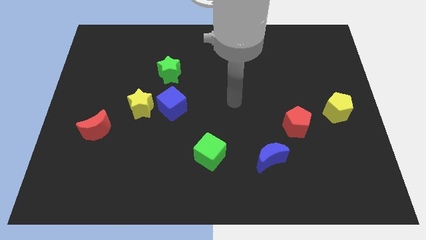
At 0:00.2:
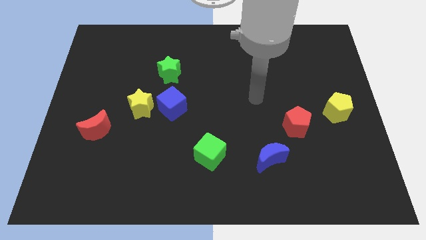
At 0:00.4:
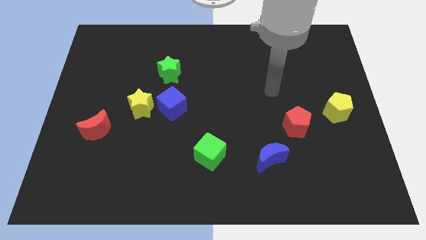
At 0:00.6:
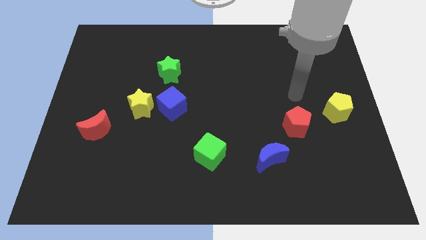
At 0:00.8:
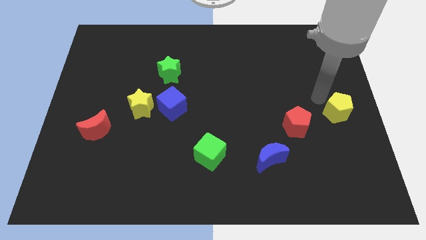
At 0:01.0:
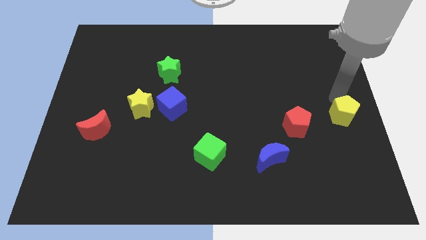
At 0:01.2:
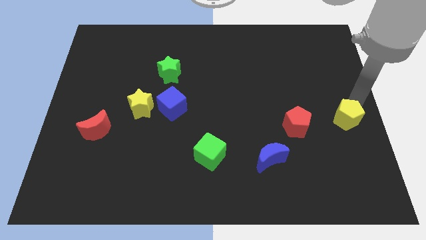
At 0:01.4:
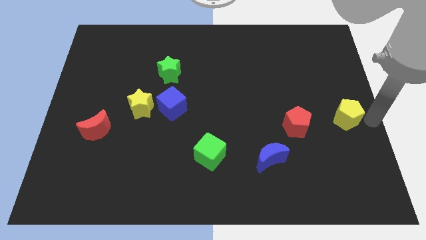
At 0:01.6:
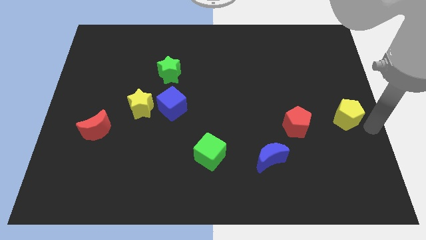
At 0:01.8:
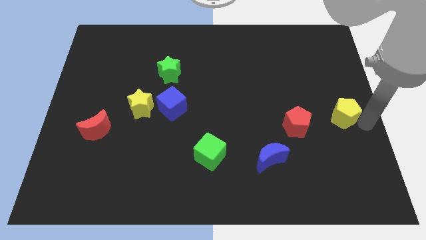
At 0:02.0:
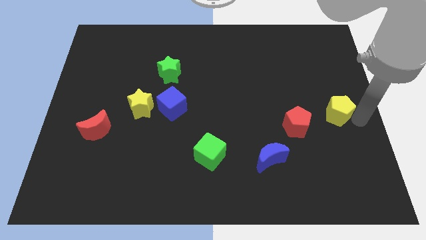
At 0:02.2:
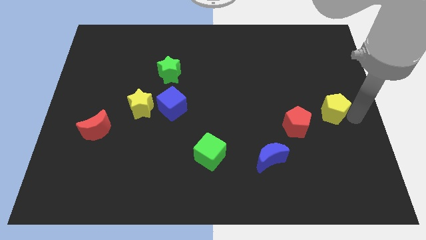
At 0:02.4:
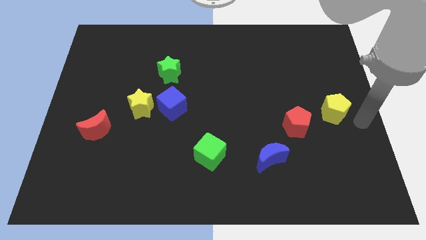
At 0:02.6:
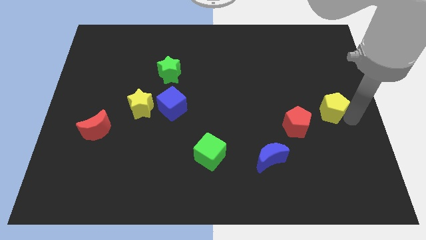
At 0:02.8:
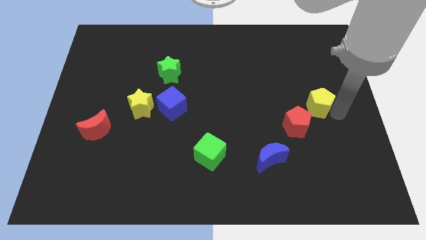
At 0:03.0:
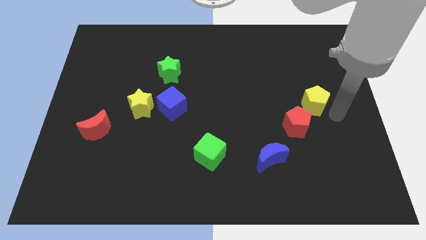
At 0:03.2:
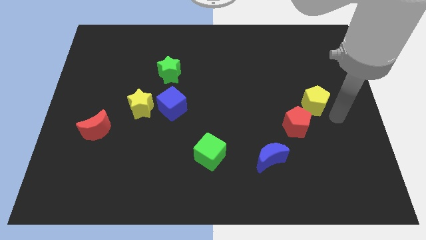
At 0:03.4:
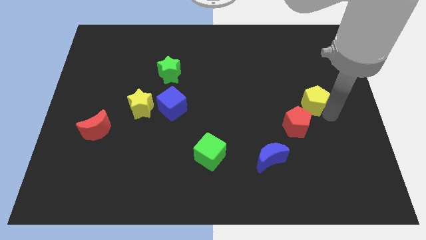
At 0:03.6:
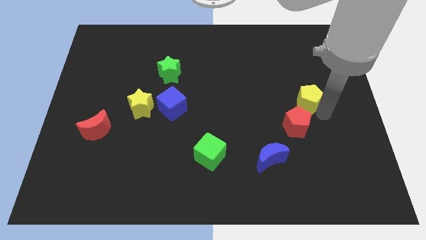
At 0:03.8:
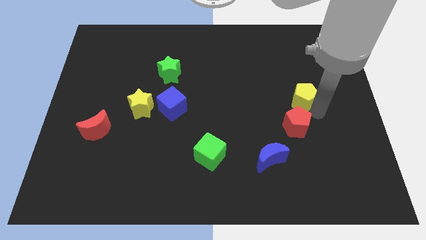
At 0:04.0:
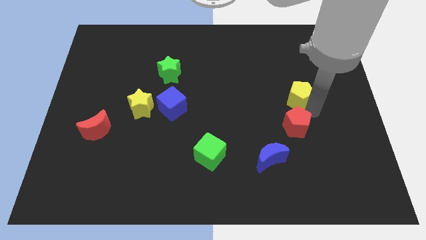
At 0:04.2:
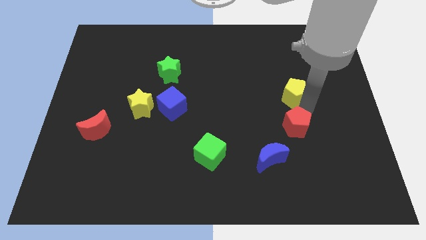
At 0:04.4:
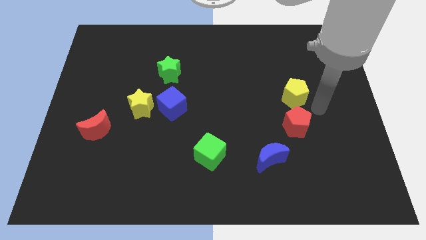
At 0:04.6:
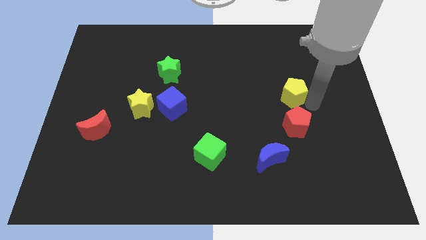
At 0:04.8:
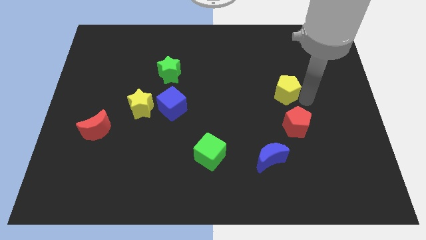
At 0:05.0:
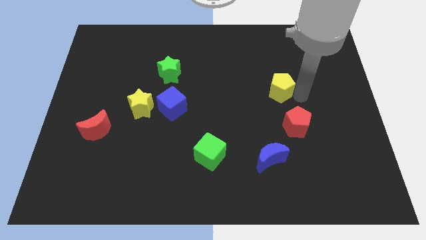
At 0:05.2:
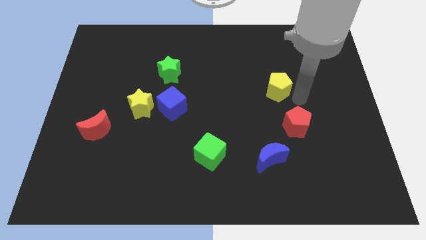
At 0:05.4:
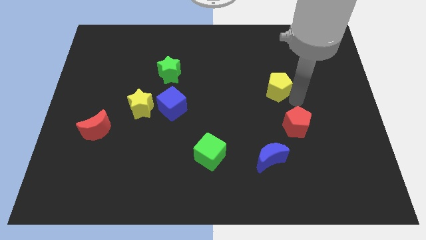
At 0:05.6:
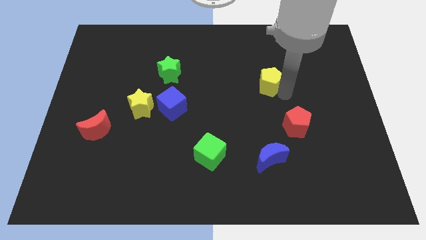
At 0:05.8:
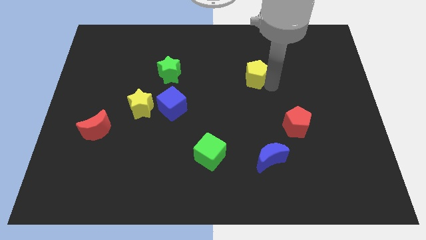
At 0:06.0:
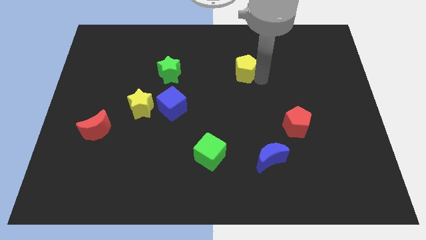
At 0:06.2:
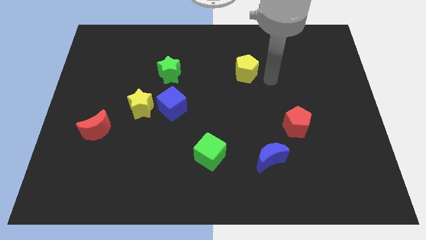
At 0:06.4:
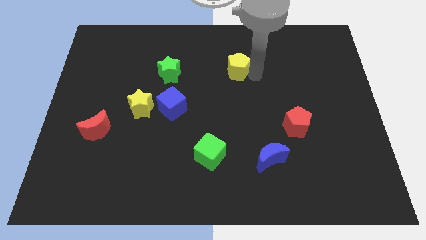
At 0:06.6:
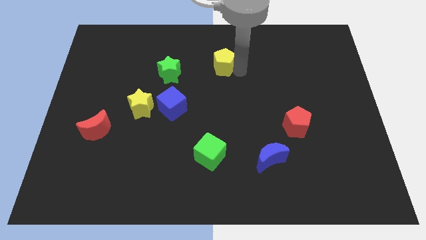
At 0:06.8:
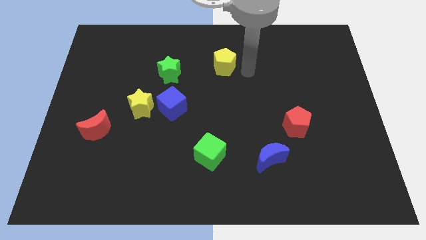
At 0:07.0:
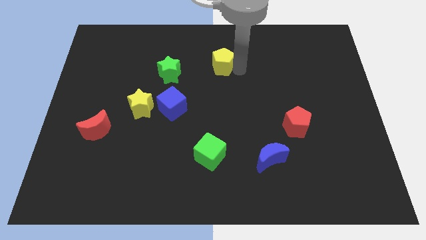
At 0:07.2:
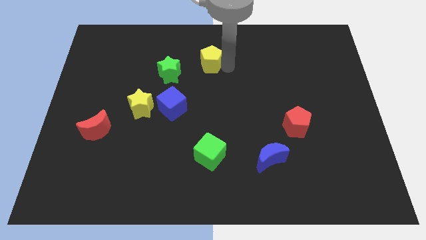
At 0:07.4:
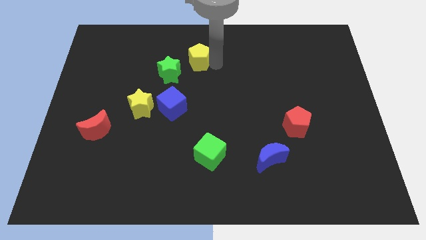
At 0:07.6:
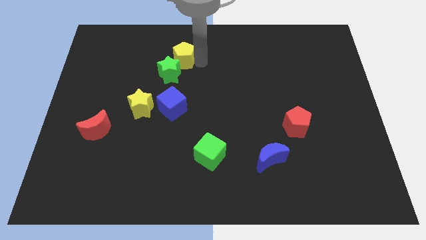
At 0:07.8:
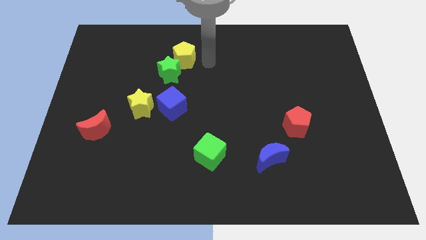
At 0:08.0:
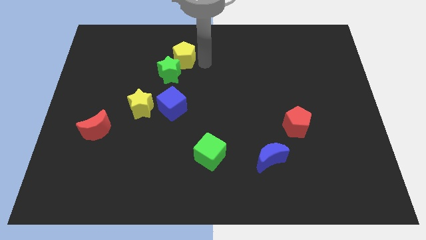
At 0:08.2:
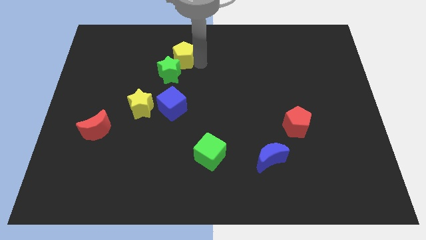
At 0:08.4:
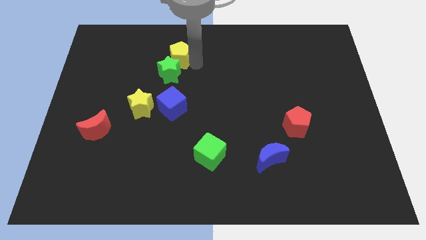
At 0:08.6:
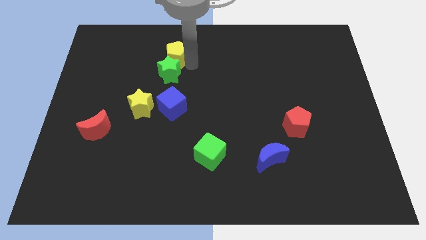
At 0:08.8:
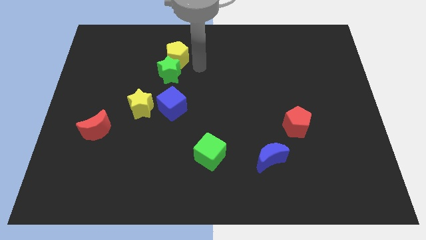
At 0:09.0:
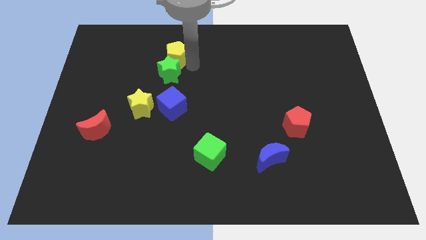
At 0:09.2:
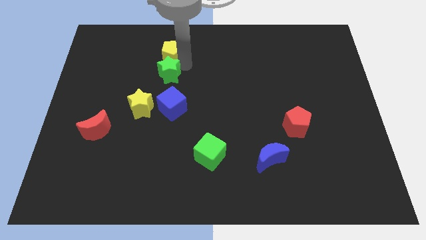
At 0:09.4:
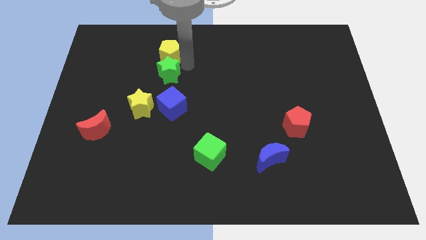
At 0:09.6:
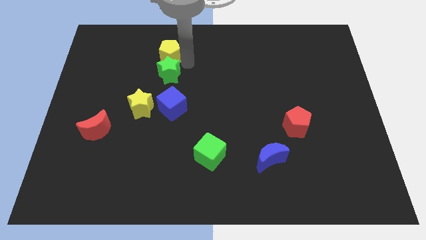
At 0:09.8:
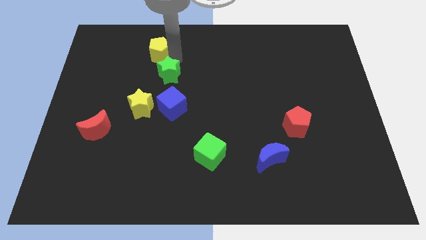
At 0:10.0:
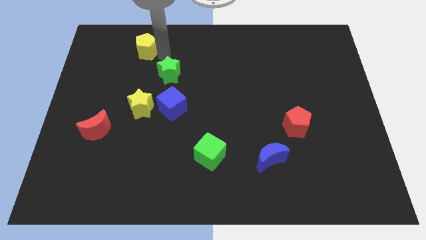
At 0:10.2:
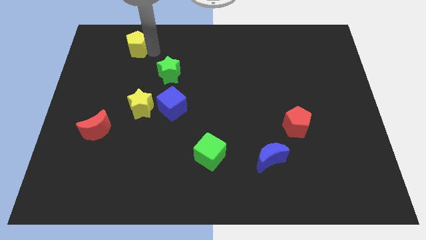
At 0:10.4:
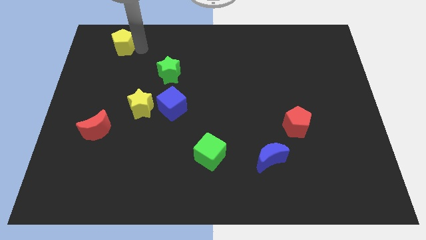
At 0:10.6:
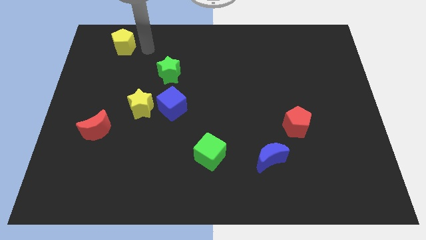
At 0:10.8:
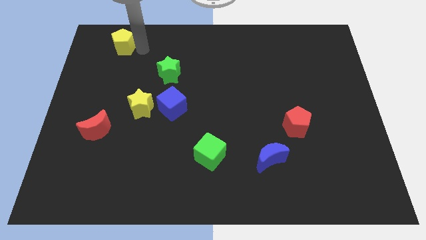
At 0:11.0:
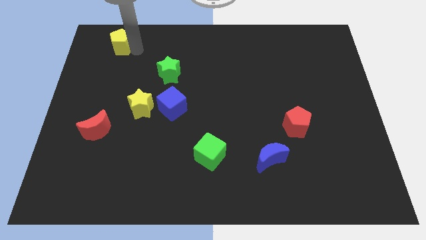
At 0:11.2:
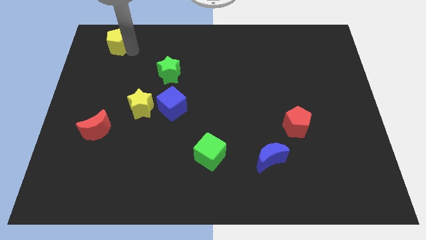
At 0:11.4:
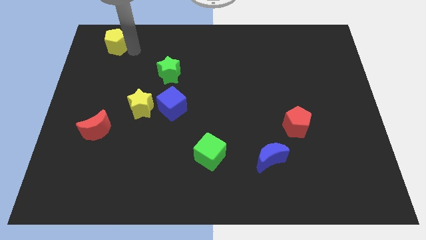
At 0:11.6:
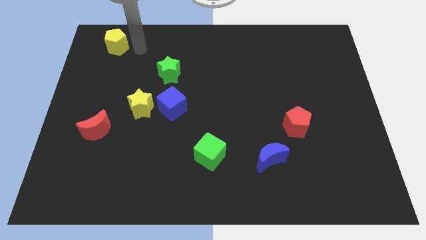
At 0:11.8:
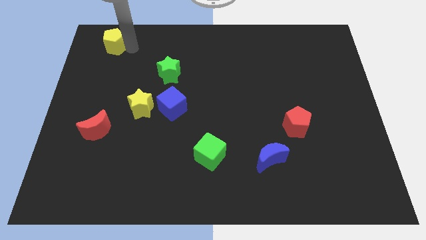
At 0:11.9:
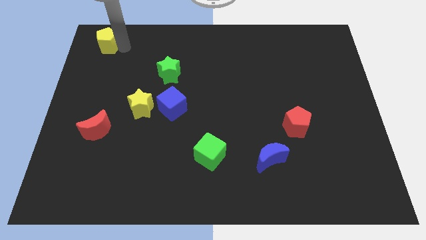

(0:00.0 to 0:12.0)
put the yellow pentagon to the top left of the board
